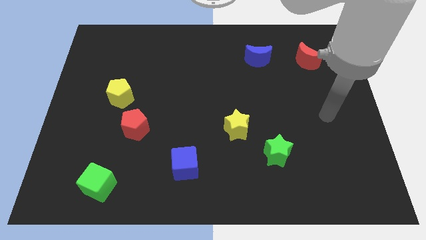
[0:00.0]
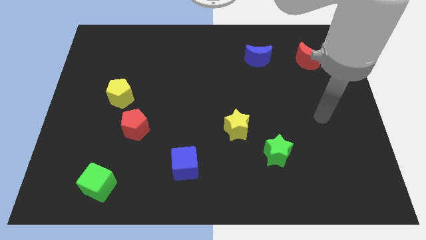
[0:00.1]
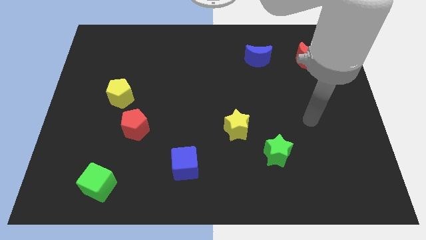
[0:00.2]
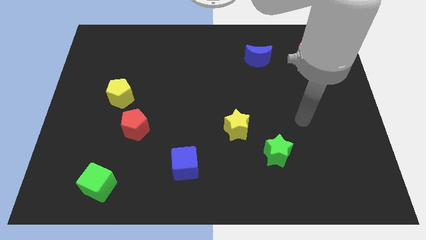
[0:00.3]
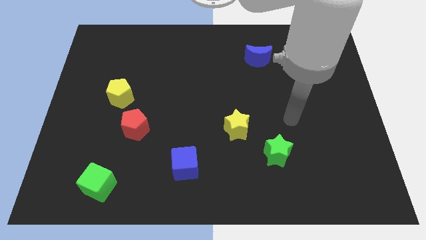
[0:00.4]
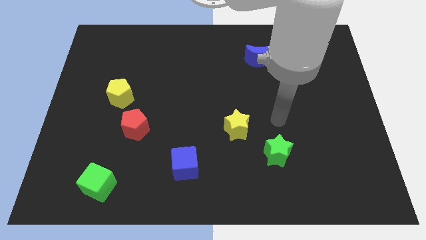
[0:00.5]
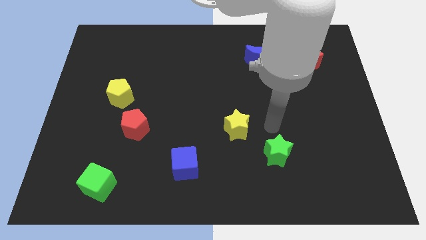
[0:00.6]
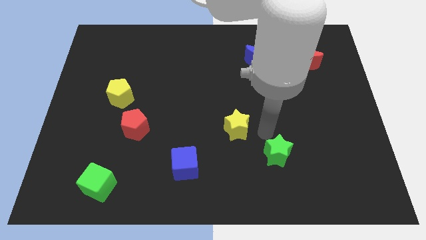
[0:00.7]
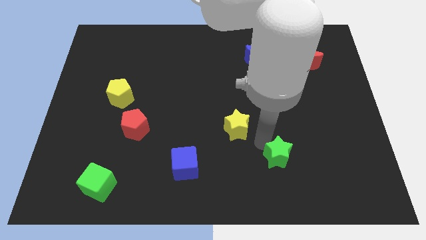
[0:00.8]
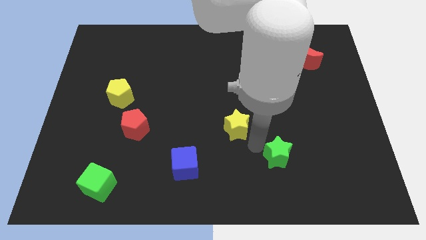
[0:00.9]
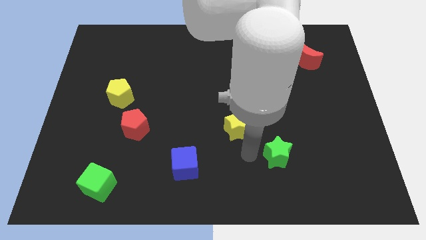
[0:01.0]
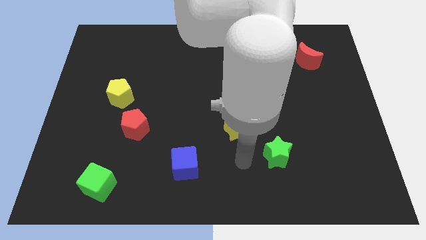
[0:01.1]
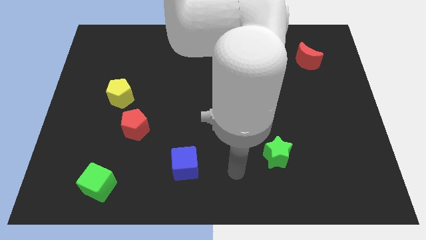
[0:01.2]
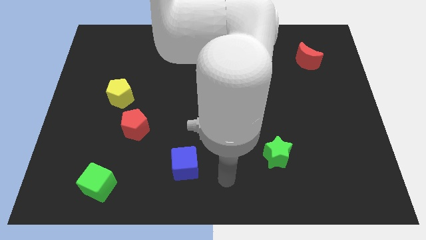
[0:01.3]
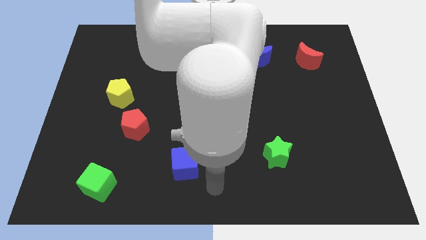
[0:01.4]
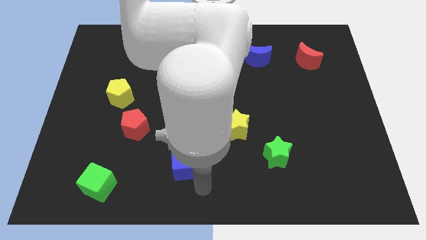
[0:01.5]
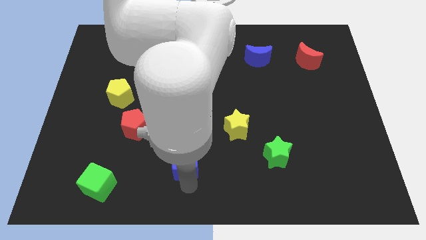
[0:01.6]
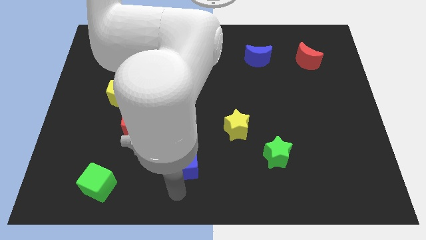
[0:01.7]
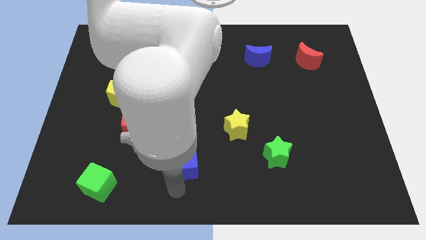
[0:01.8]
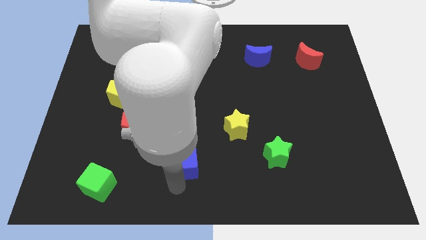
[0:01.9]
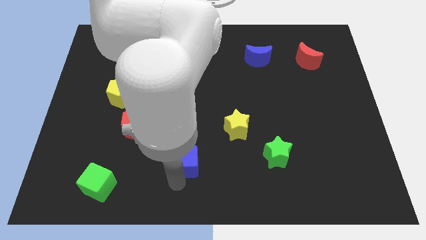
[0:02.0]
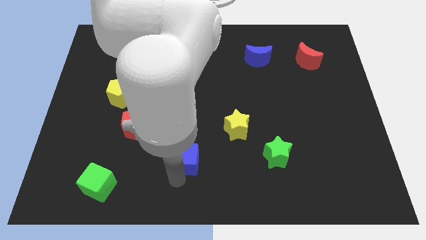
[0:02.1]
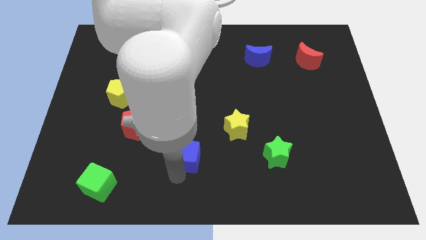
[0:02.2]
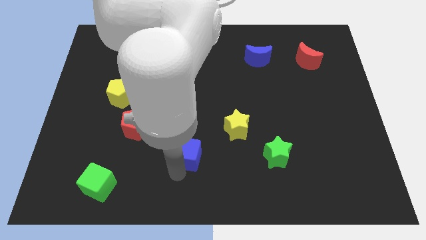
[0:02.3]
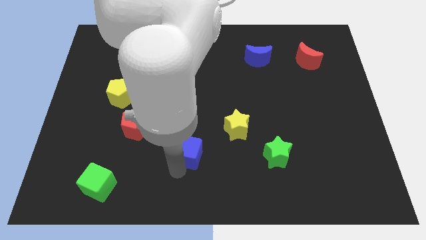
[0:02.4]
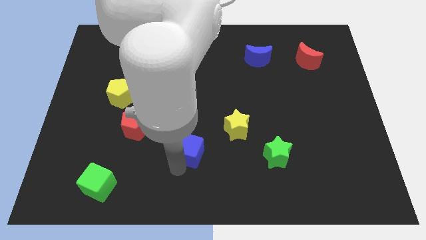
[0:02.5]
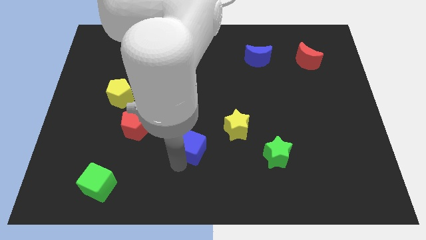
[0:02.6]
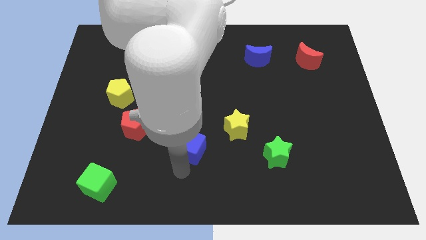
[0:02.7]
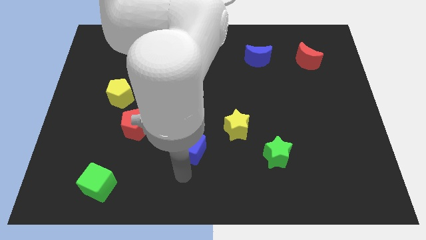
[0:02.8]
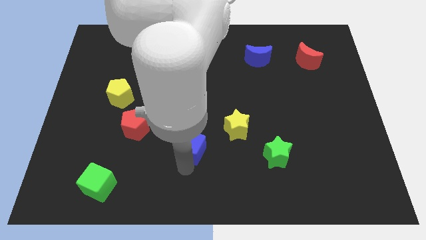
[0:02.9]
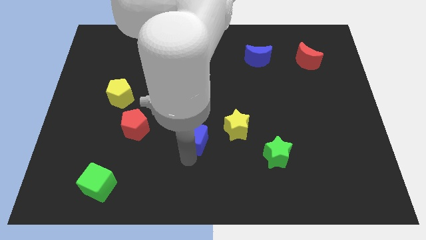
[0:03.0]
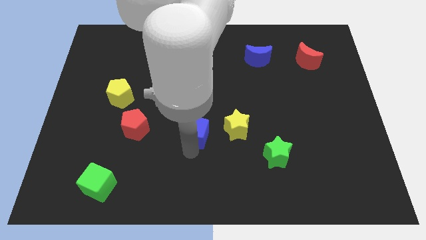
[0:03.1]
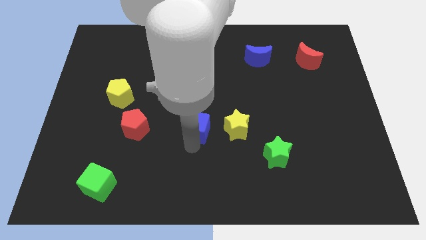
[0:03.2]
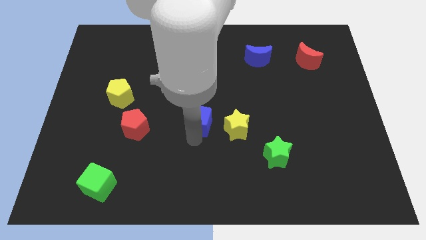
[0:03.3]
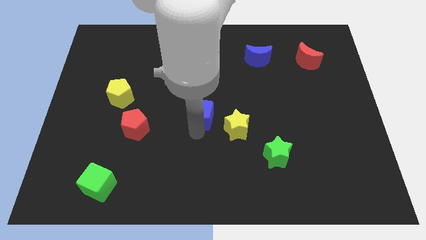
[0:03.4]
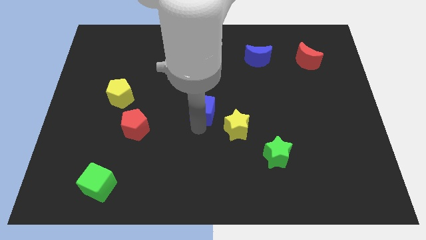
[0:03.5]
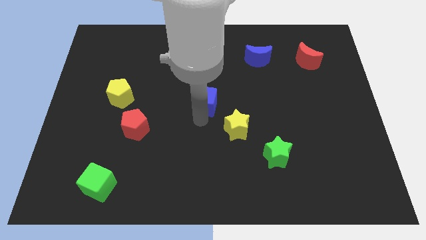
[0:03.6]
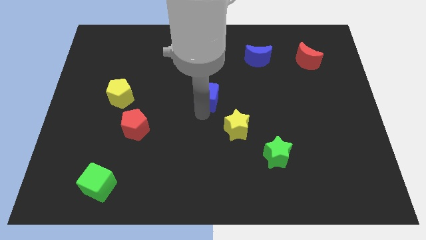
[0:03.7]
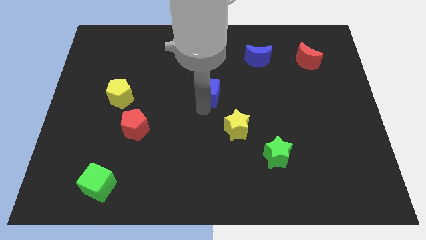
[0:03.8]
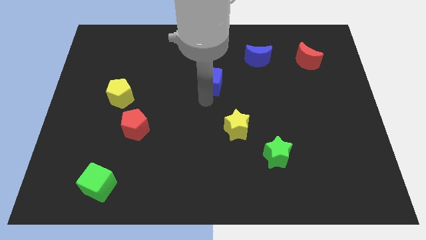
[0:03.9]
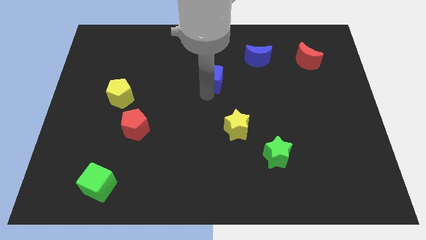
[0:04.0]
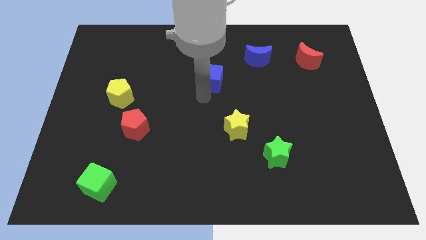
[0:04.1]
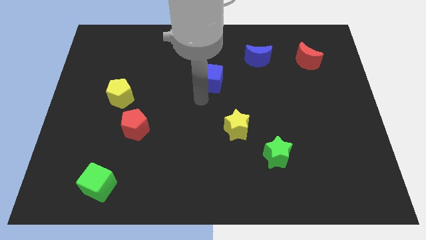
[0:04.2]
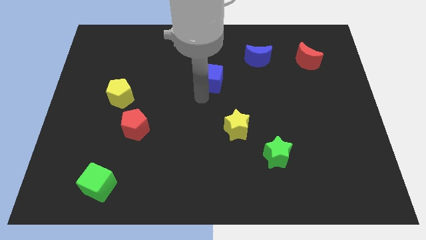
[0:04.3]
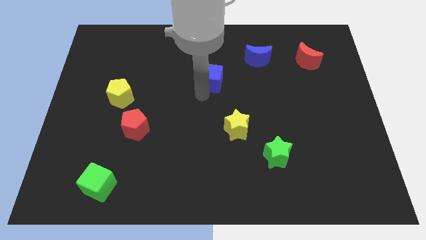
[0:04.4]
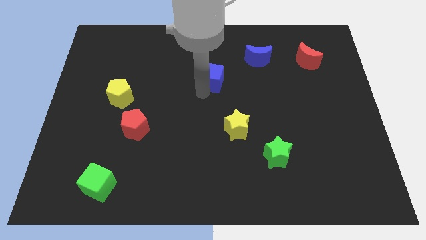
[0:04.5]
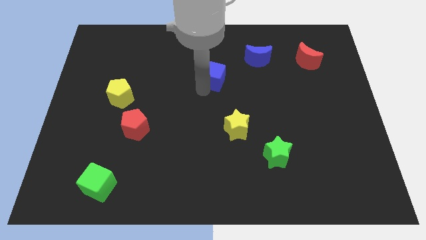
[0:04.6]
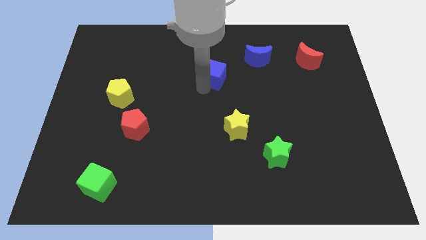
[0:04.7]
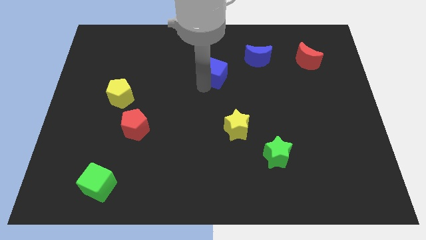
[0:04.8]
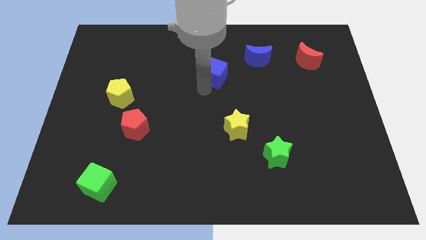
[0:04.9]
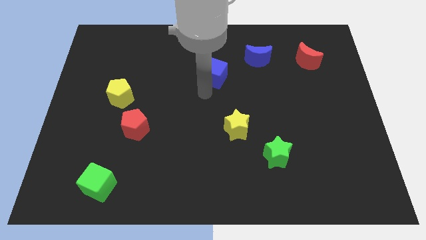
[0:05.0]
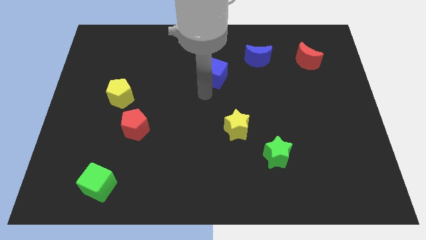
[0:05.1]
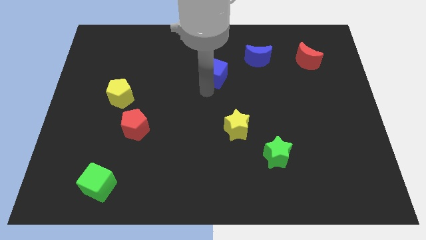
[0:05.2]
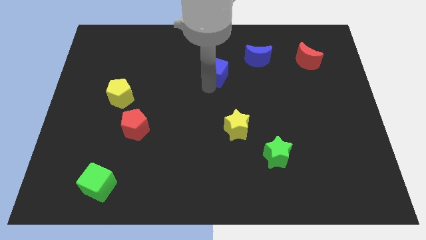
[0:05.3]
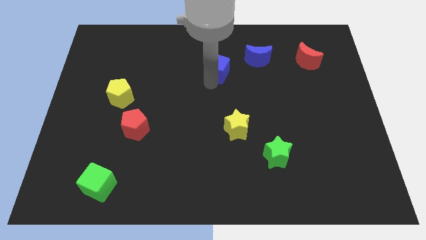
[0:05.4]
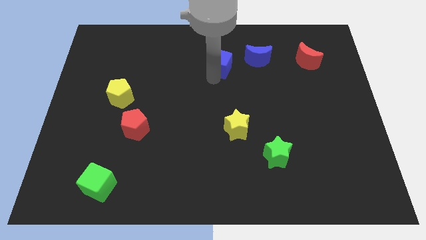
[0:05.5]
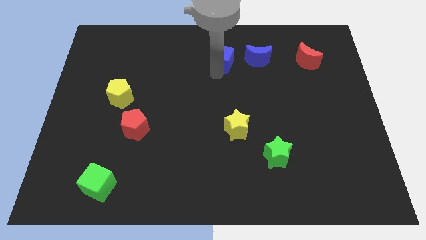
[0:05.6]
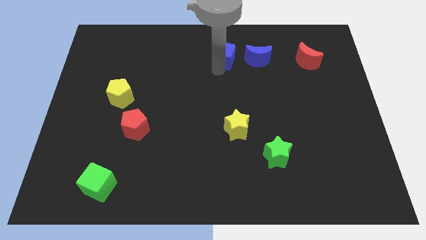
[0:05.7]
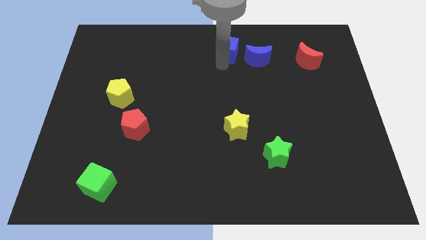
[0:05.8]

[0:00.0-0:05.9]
move the blue cube to the top side

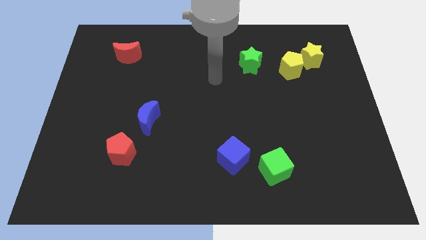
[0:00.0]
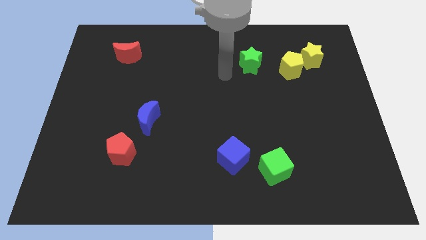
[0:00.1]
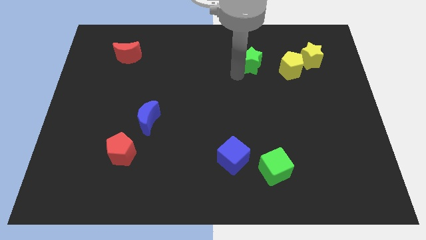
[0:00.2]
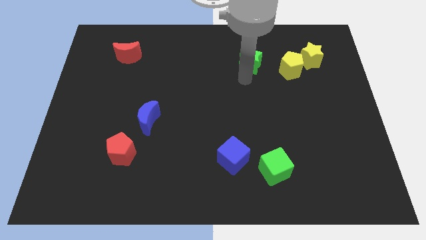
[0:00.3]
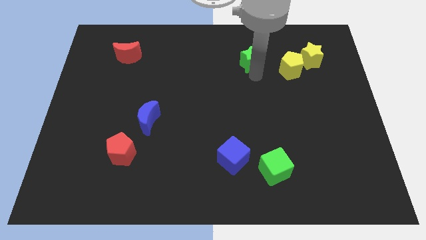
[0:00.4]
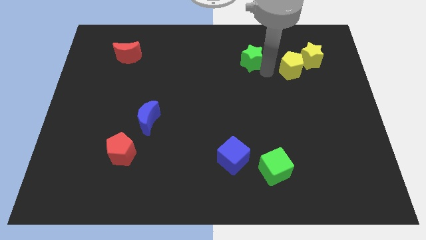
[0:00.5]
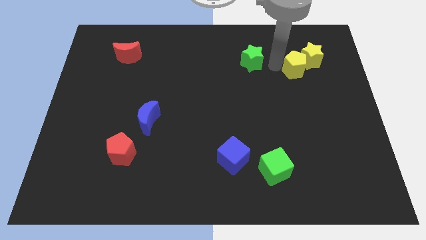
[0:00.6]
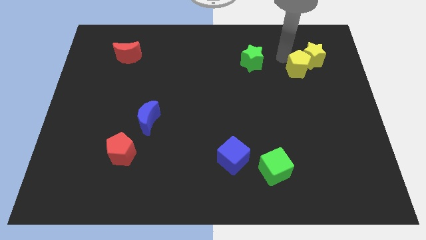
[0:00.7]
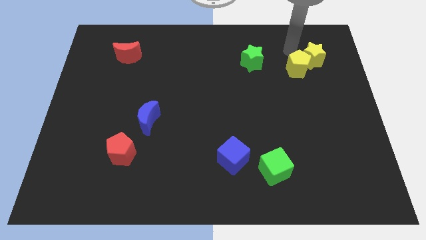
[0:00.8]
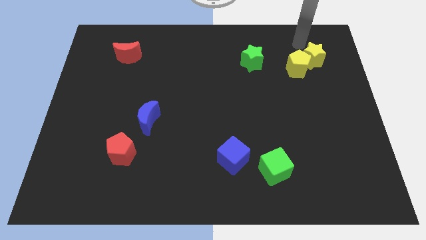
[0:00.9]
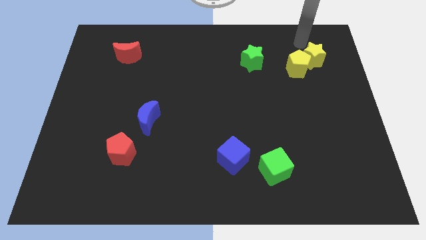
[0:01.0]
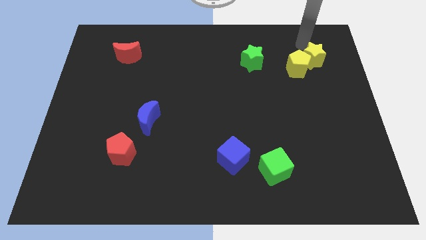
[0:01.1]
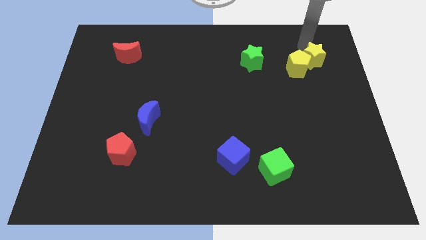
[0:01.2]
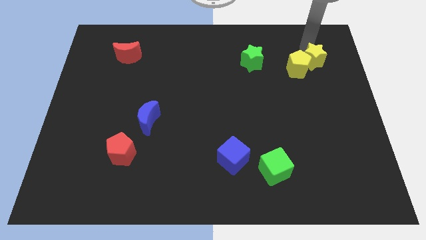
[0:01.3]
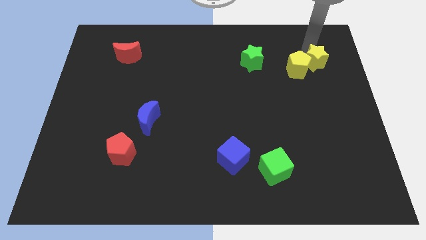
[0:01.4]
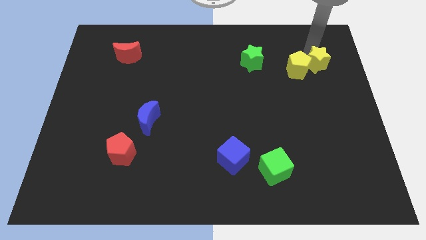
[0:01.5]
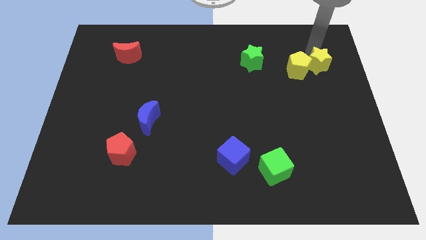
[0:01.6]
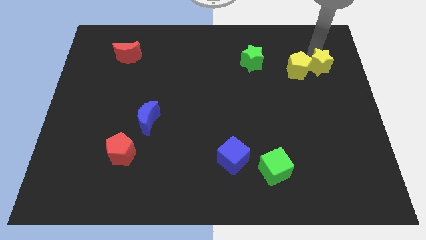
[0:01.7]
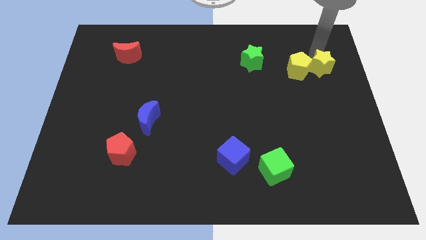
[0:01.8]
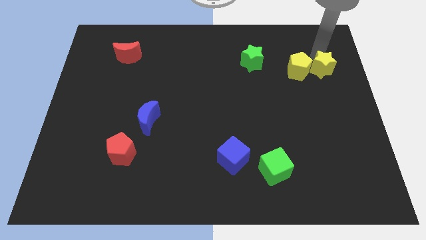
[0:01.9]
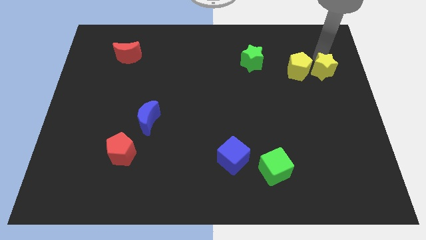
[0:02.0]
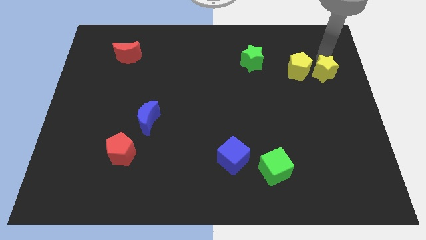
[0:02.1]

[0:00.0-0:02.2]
move the yellow star to the center right
